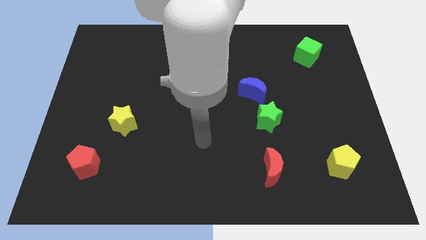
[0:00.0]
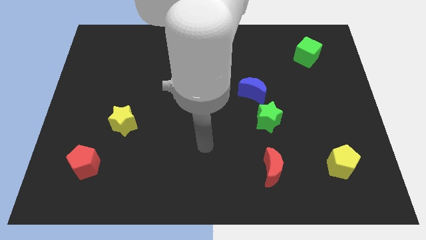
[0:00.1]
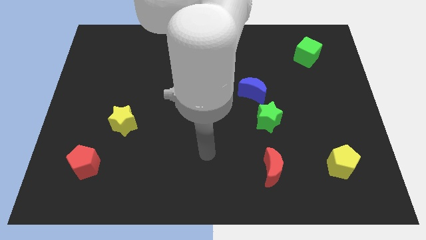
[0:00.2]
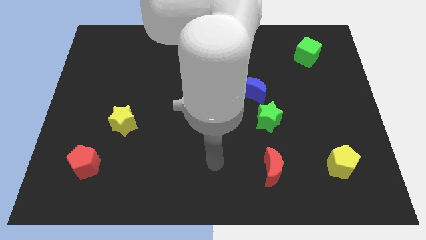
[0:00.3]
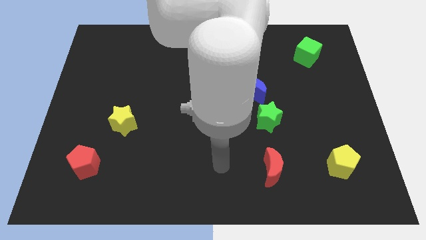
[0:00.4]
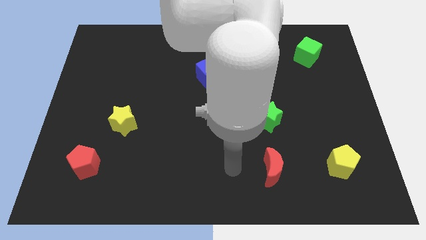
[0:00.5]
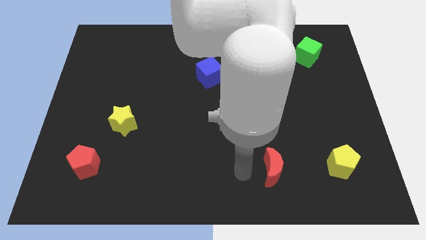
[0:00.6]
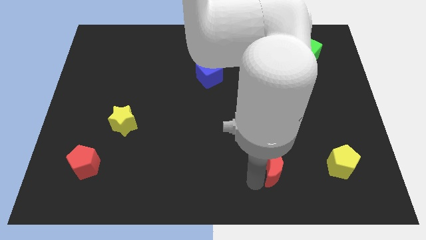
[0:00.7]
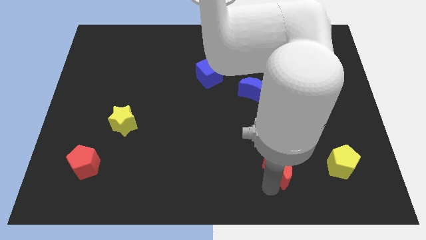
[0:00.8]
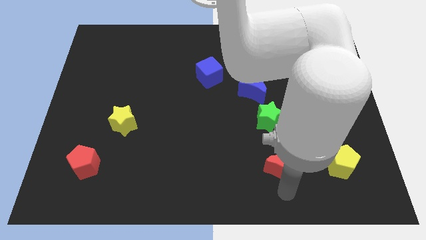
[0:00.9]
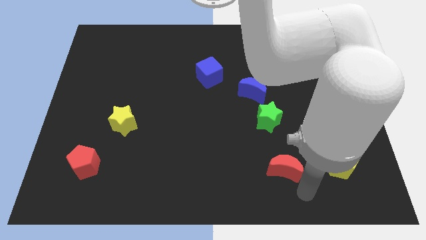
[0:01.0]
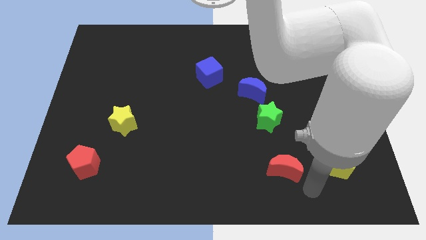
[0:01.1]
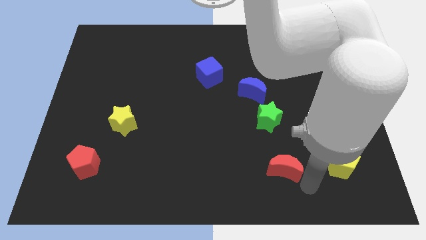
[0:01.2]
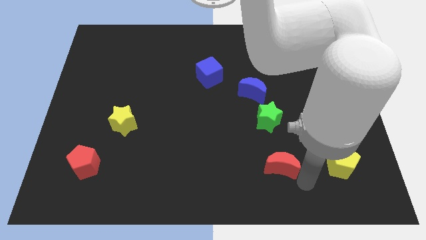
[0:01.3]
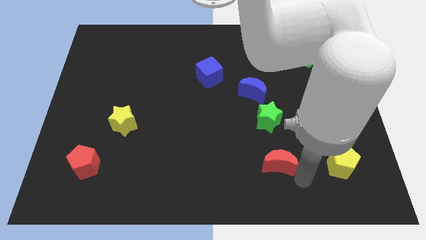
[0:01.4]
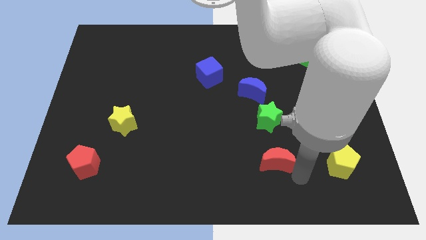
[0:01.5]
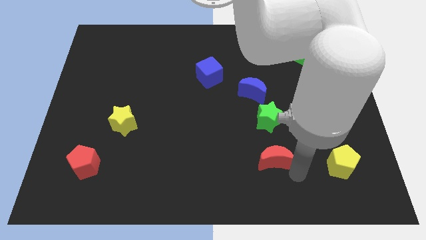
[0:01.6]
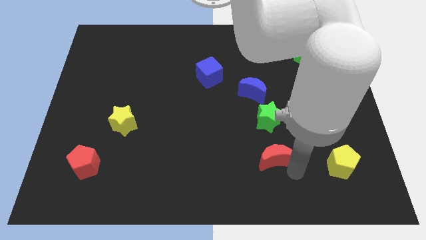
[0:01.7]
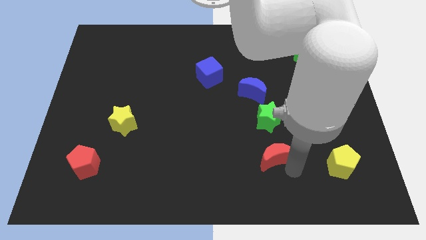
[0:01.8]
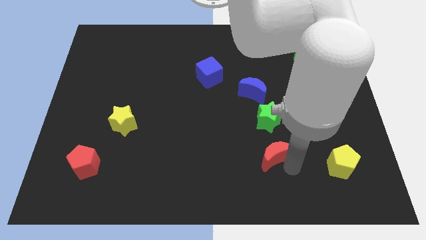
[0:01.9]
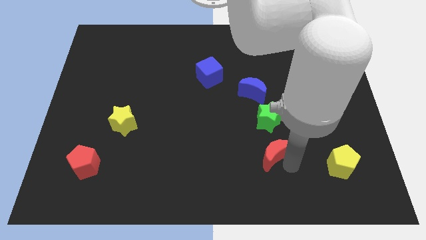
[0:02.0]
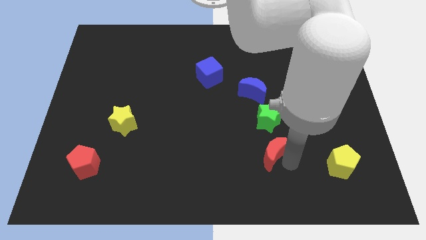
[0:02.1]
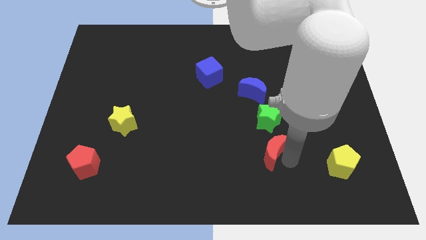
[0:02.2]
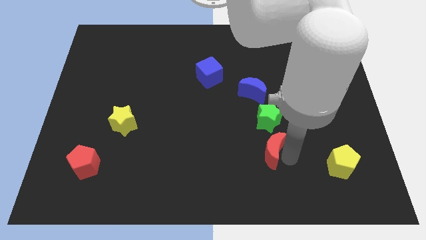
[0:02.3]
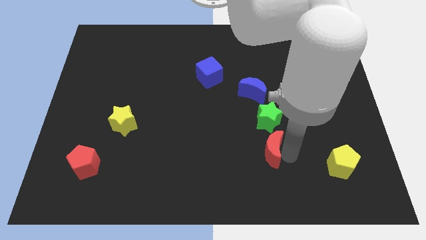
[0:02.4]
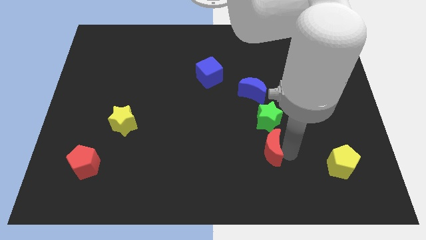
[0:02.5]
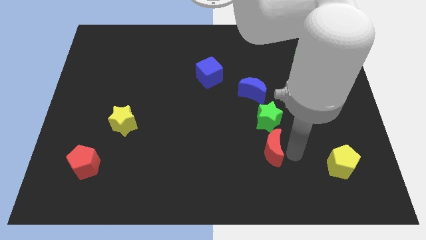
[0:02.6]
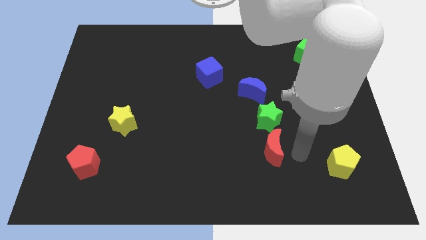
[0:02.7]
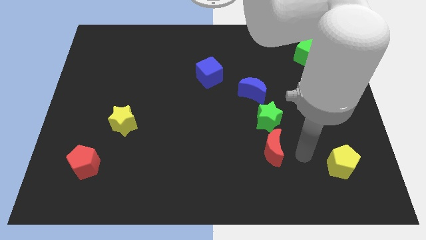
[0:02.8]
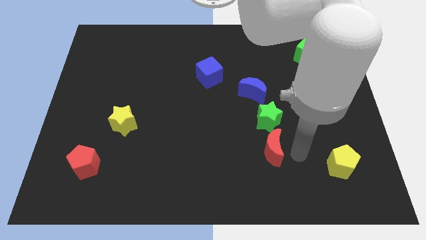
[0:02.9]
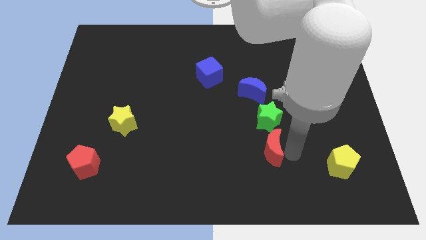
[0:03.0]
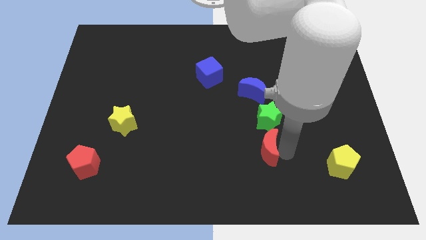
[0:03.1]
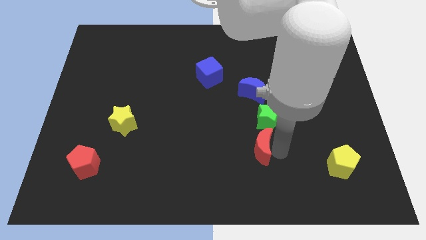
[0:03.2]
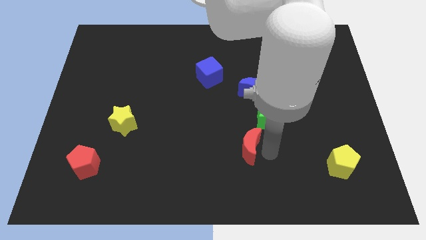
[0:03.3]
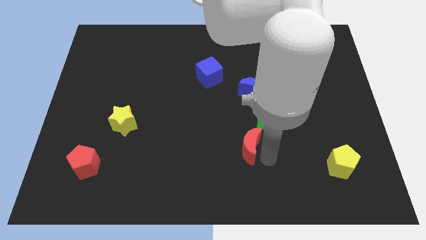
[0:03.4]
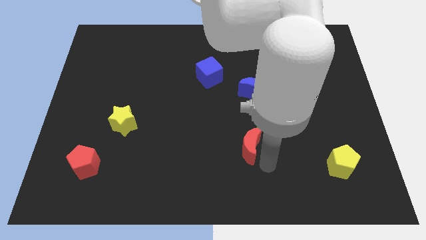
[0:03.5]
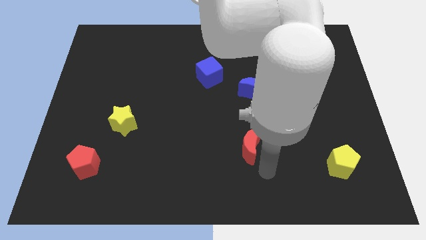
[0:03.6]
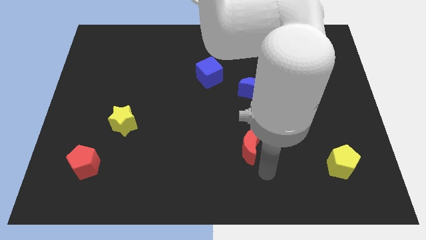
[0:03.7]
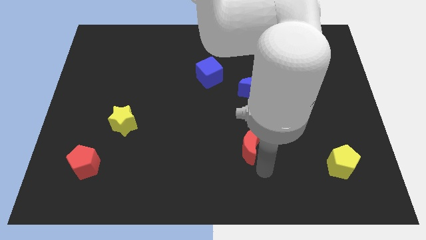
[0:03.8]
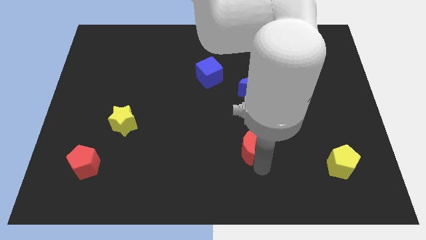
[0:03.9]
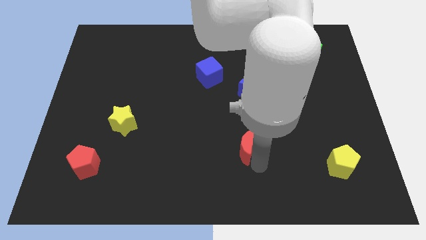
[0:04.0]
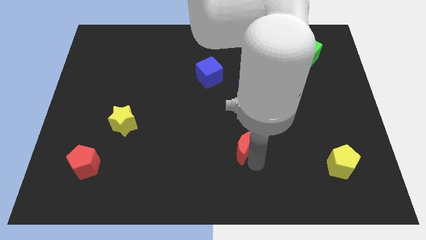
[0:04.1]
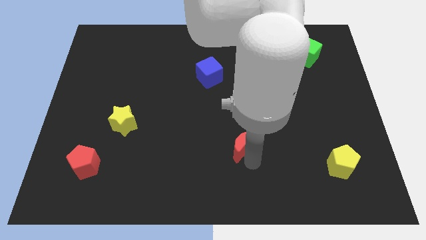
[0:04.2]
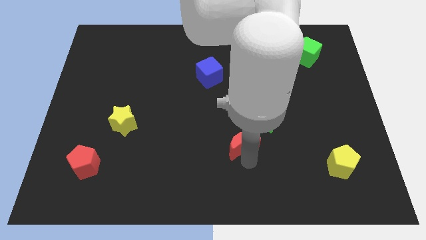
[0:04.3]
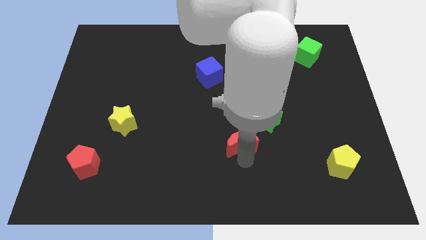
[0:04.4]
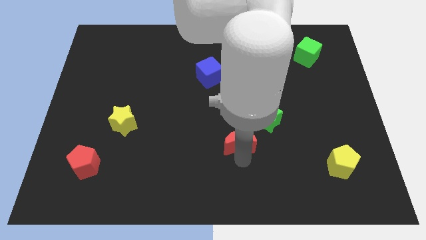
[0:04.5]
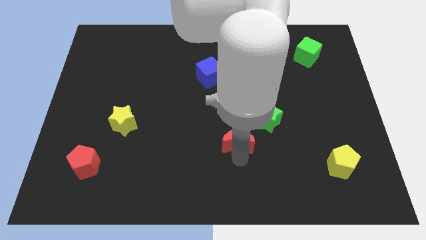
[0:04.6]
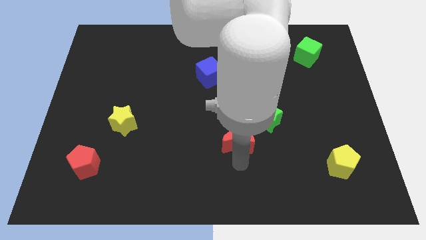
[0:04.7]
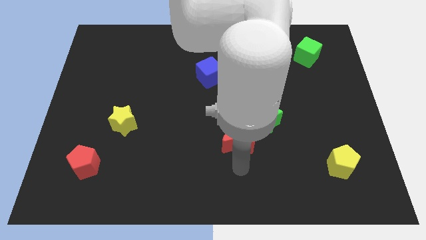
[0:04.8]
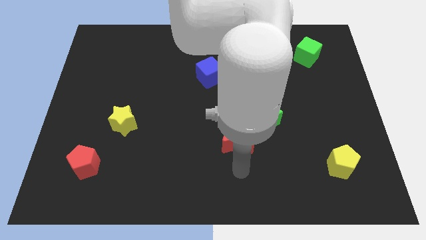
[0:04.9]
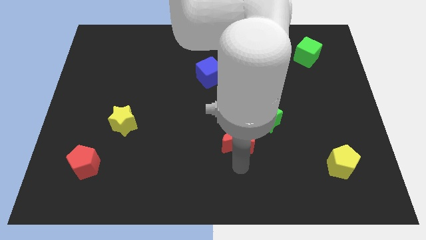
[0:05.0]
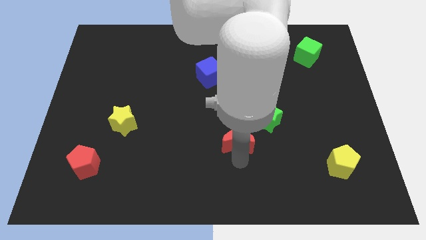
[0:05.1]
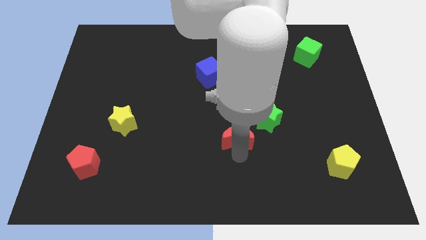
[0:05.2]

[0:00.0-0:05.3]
push the red moon to the center of the board

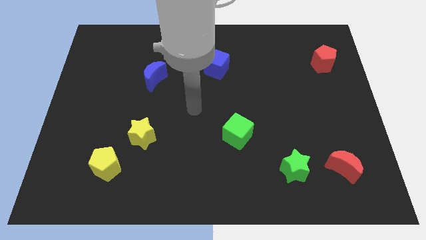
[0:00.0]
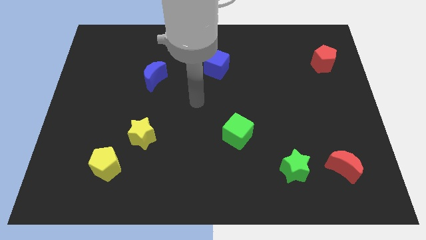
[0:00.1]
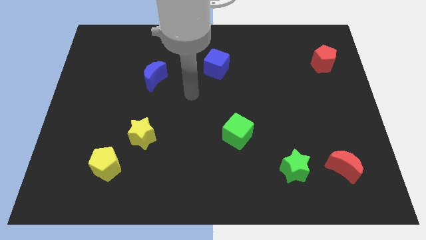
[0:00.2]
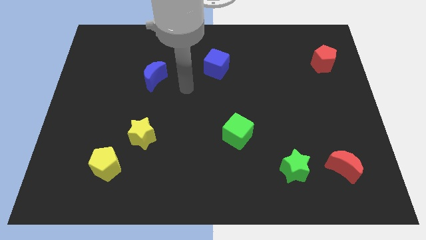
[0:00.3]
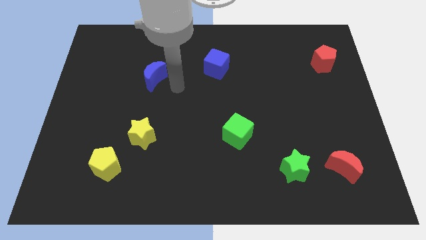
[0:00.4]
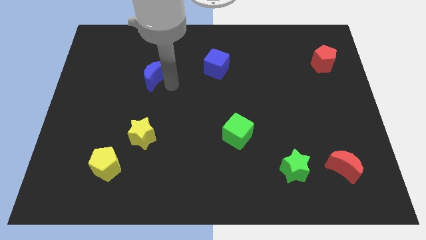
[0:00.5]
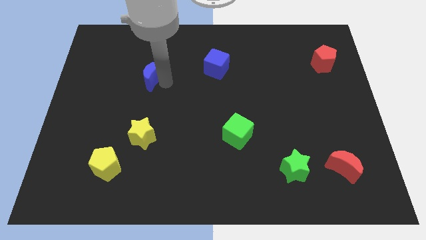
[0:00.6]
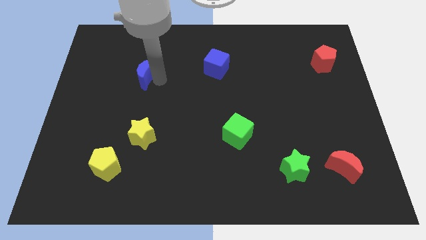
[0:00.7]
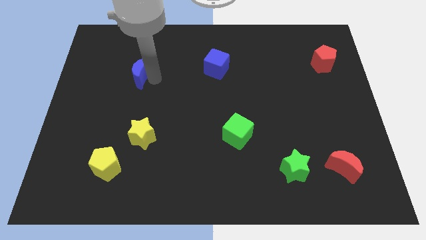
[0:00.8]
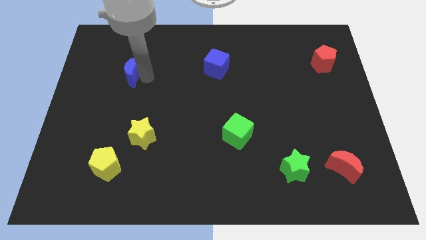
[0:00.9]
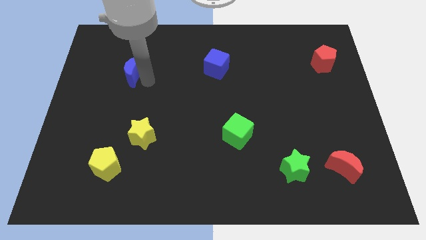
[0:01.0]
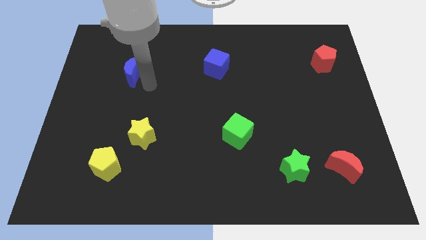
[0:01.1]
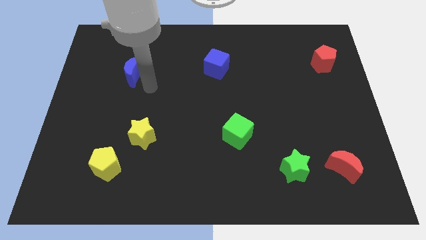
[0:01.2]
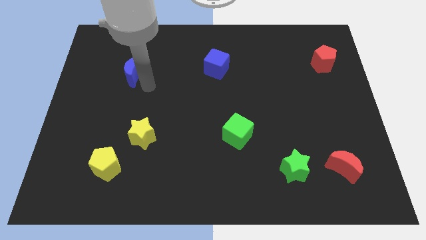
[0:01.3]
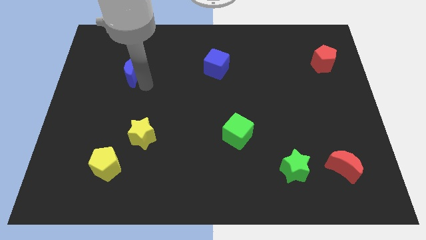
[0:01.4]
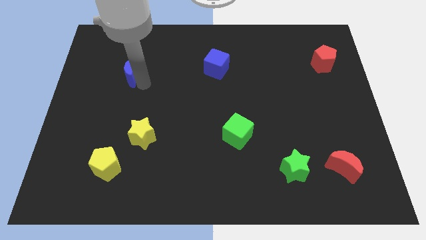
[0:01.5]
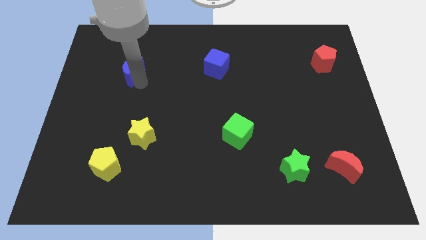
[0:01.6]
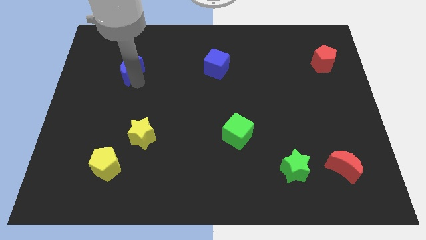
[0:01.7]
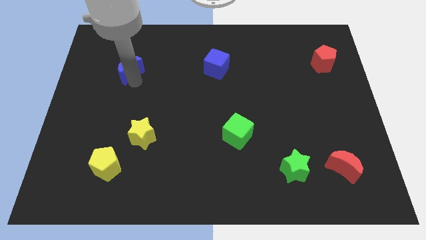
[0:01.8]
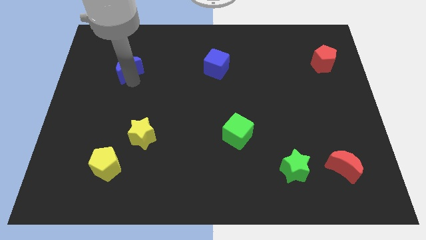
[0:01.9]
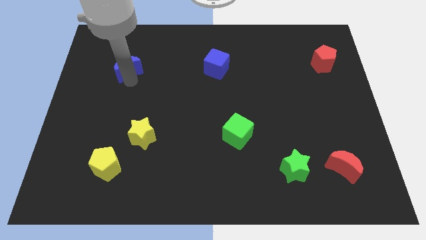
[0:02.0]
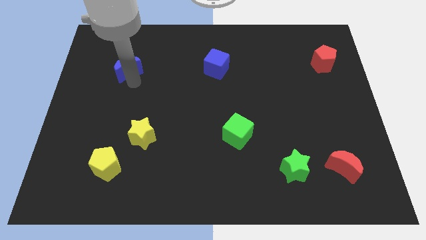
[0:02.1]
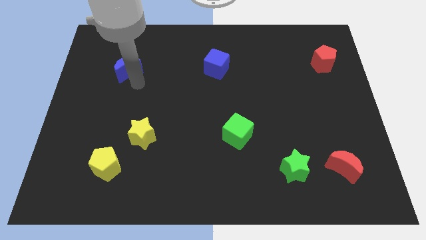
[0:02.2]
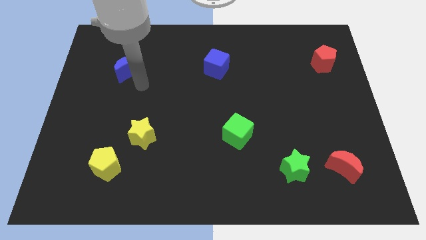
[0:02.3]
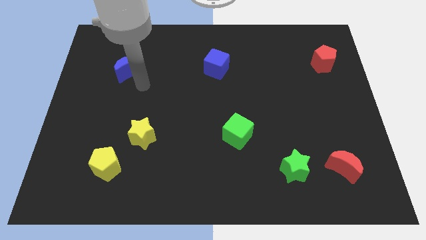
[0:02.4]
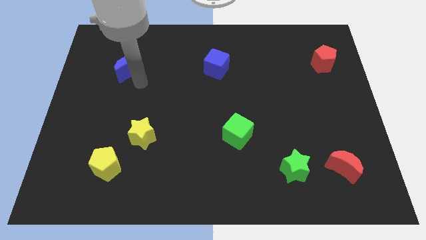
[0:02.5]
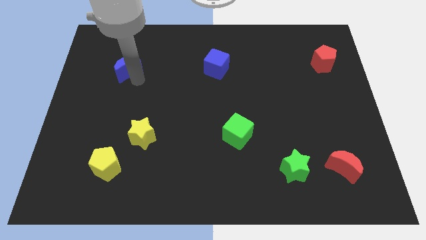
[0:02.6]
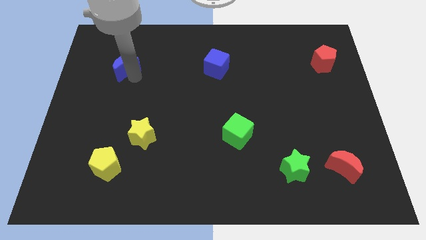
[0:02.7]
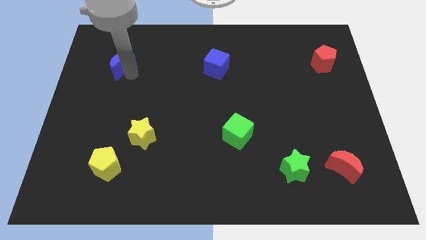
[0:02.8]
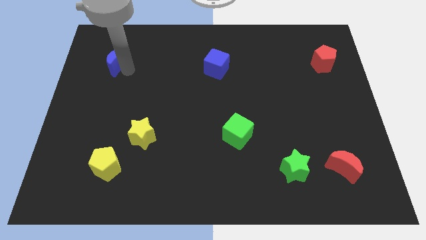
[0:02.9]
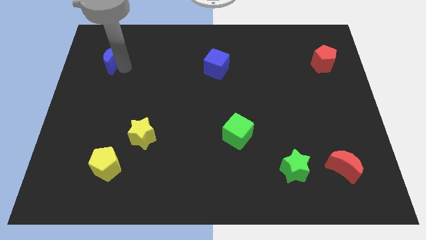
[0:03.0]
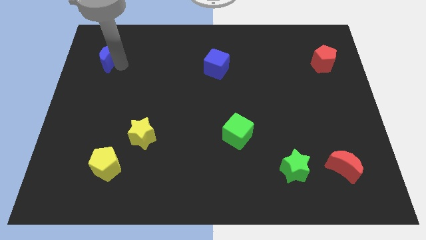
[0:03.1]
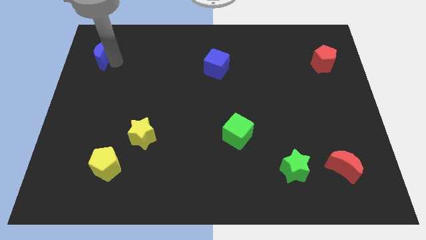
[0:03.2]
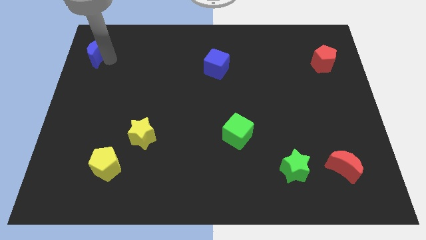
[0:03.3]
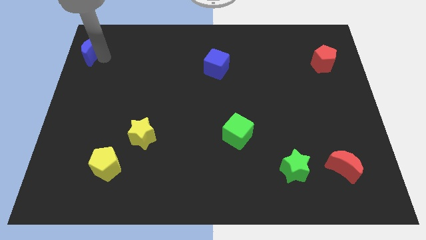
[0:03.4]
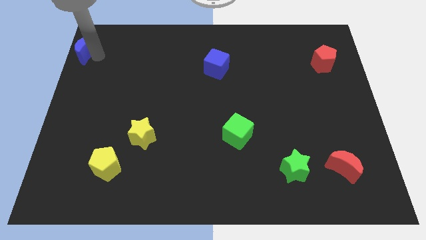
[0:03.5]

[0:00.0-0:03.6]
move the blue moon to the upper left corner

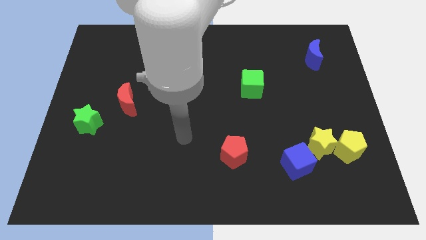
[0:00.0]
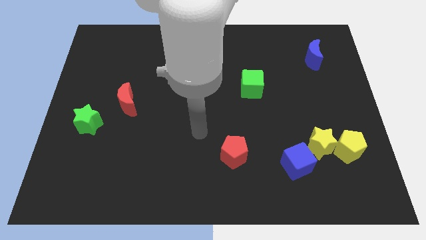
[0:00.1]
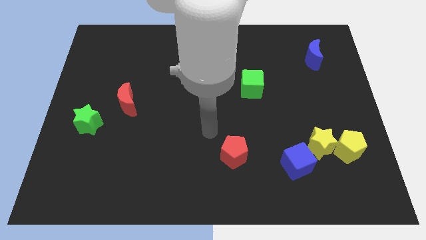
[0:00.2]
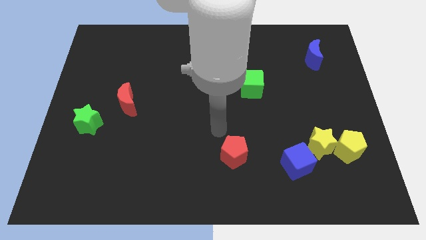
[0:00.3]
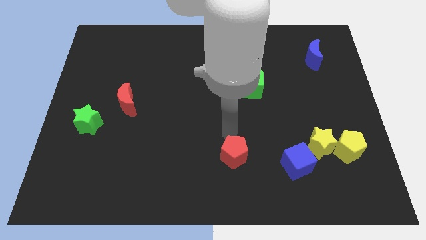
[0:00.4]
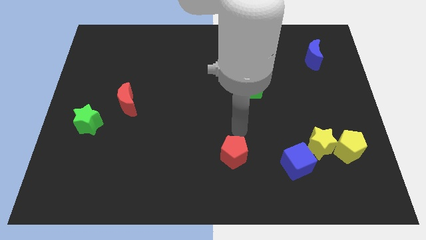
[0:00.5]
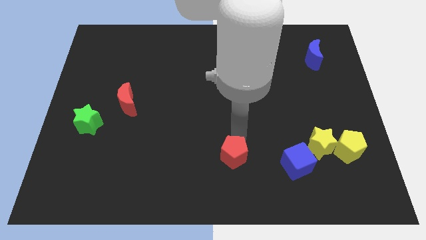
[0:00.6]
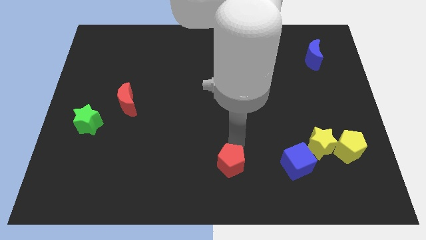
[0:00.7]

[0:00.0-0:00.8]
move the red pentagon to the bottom side
